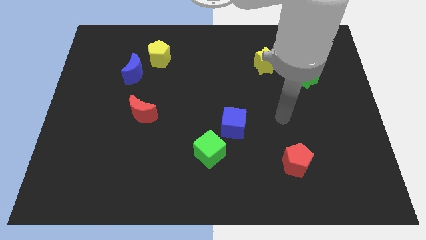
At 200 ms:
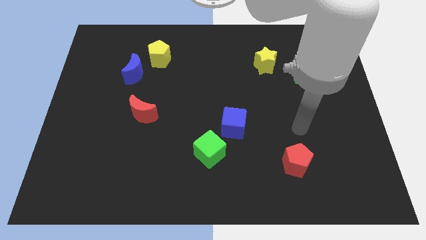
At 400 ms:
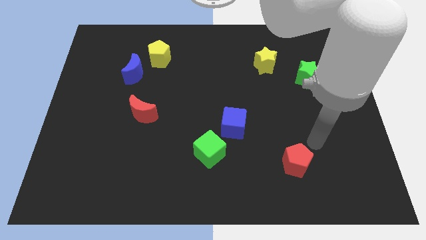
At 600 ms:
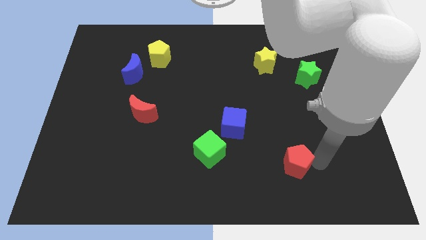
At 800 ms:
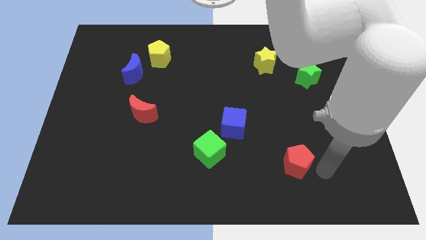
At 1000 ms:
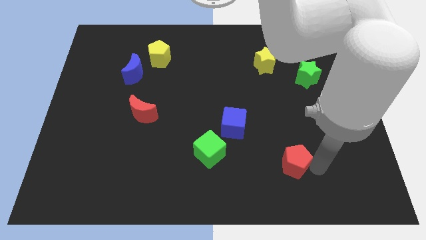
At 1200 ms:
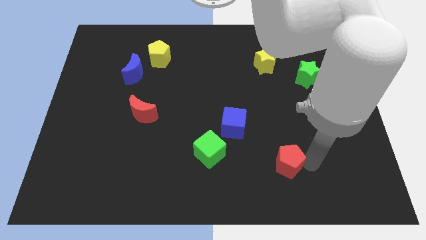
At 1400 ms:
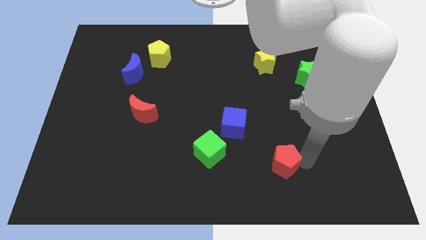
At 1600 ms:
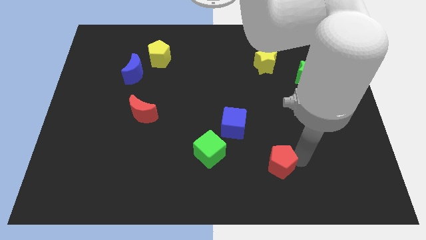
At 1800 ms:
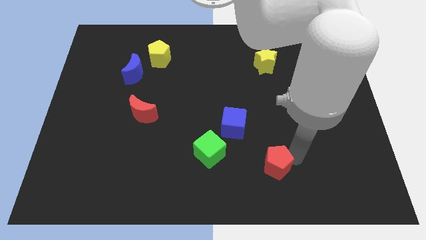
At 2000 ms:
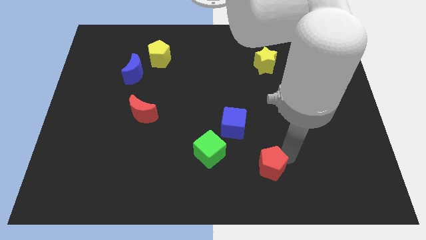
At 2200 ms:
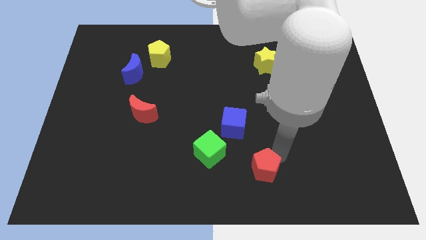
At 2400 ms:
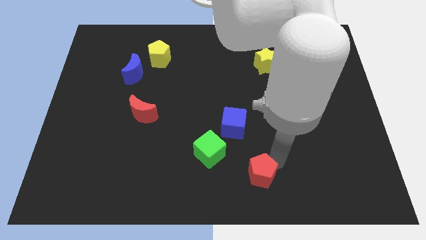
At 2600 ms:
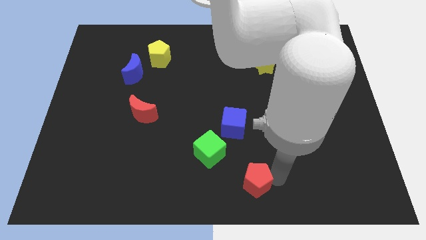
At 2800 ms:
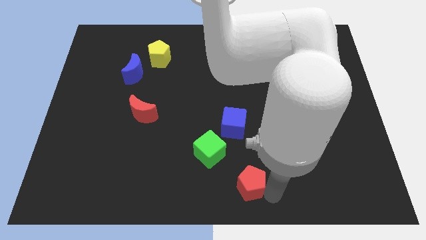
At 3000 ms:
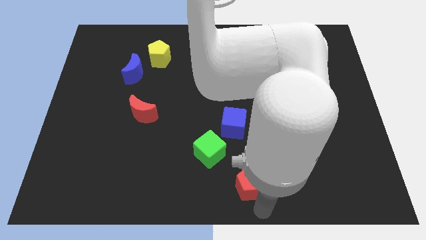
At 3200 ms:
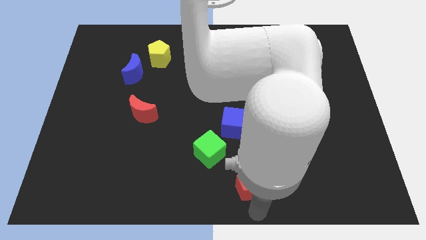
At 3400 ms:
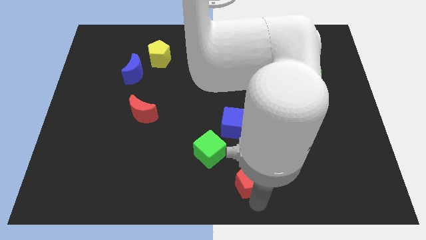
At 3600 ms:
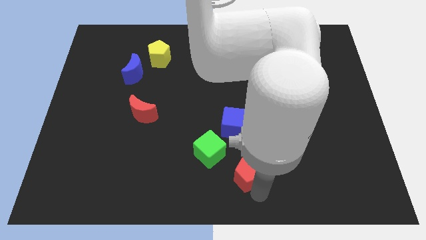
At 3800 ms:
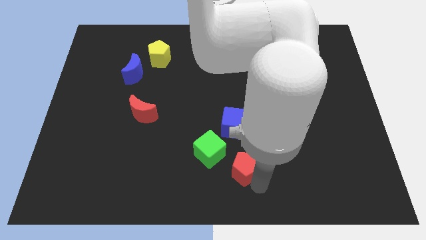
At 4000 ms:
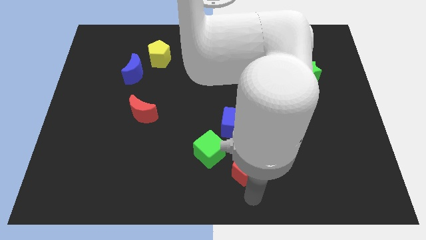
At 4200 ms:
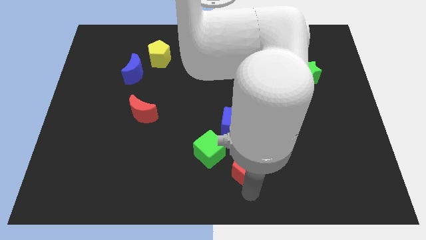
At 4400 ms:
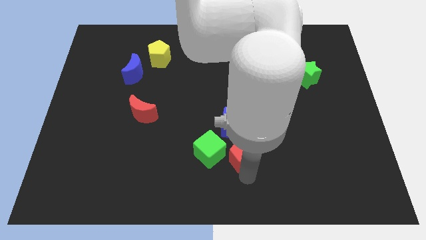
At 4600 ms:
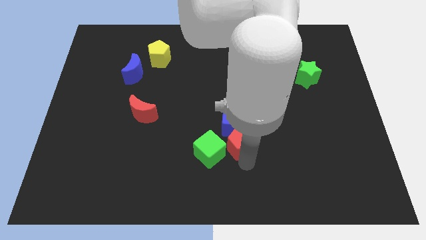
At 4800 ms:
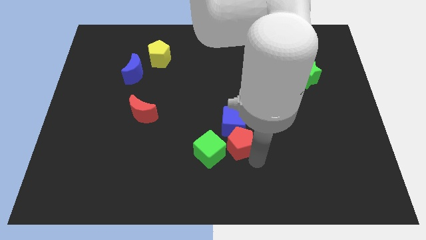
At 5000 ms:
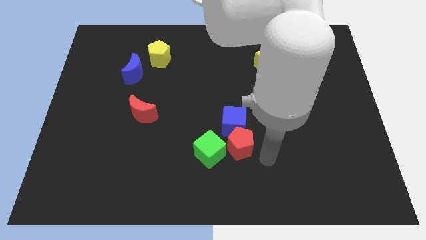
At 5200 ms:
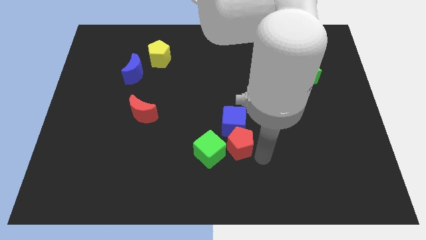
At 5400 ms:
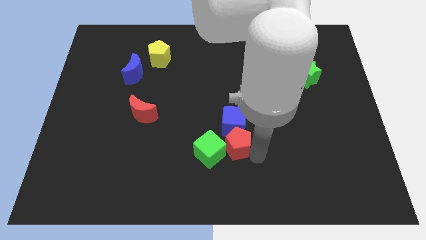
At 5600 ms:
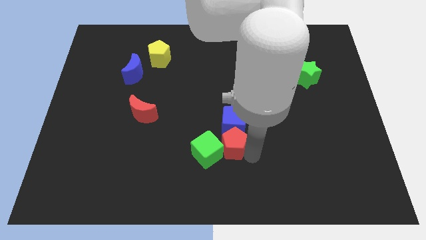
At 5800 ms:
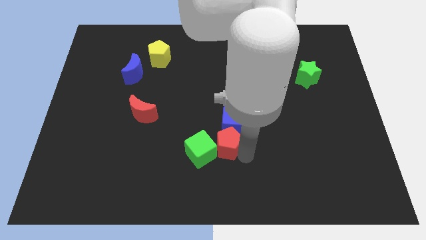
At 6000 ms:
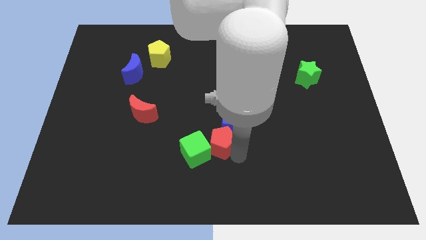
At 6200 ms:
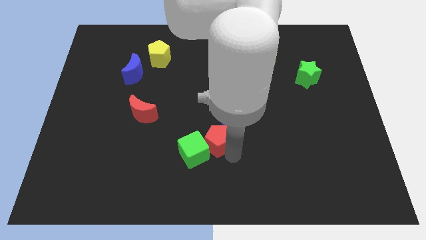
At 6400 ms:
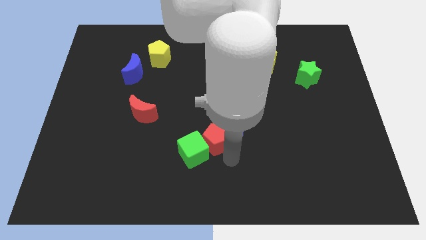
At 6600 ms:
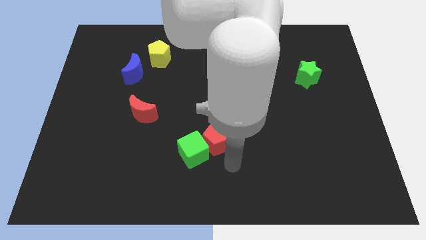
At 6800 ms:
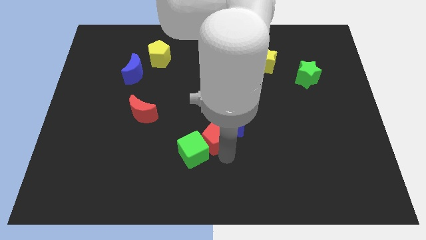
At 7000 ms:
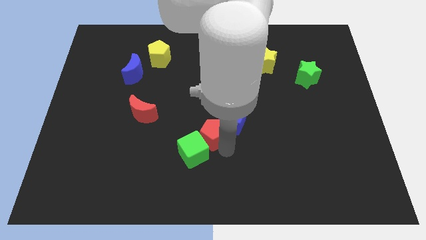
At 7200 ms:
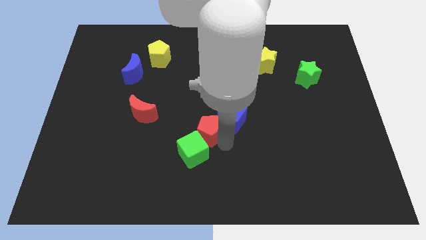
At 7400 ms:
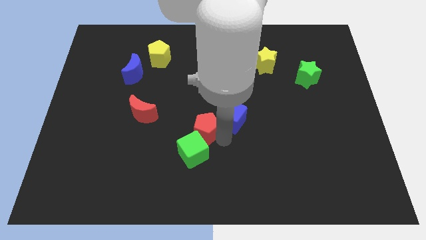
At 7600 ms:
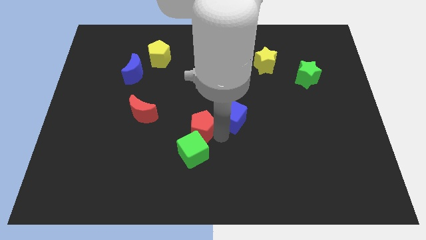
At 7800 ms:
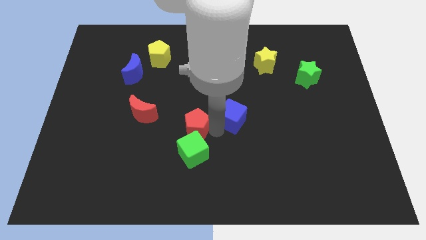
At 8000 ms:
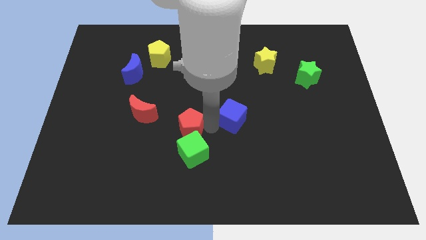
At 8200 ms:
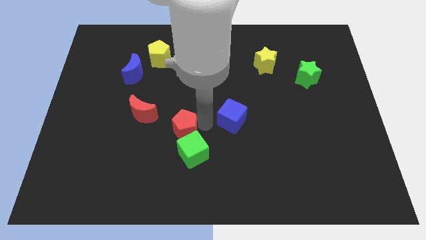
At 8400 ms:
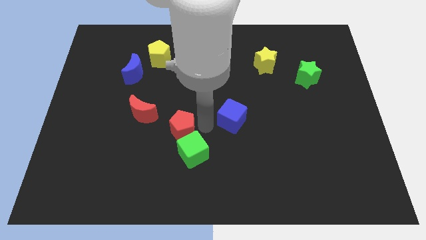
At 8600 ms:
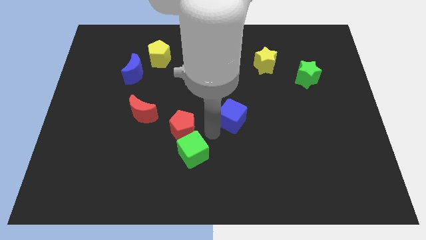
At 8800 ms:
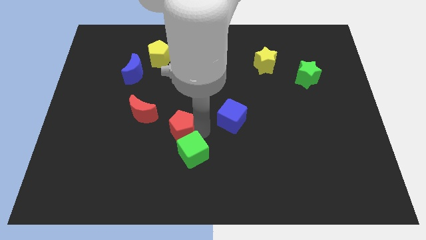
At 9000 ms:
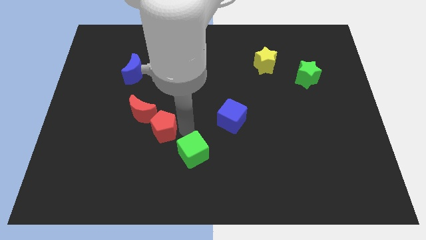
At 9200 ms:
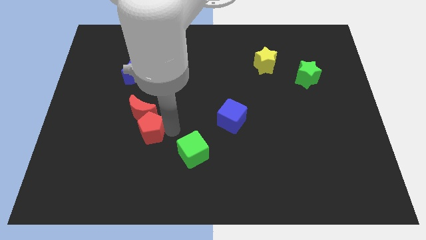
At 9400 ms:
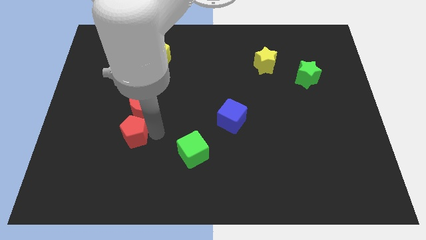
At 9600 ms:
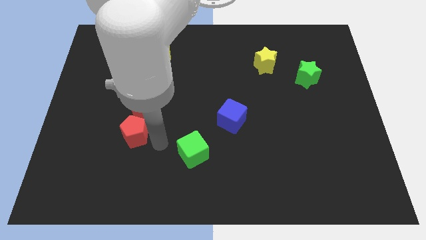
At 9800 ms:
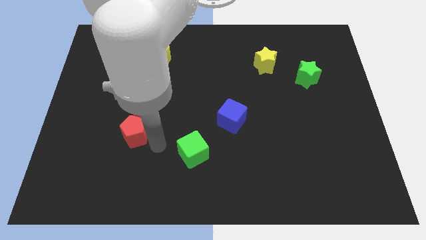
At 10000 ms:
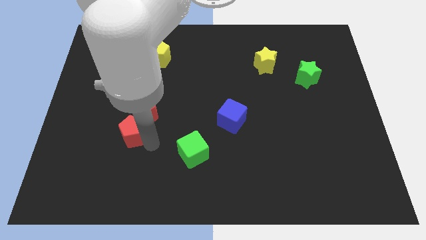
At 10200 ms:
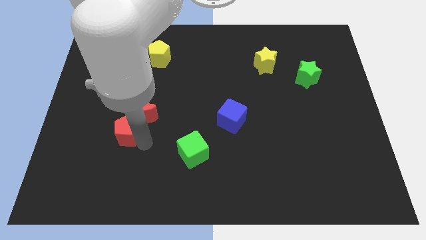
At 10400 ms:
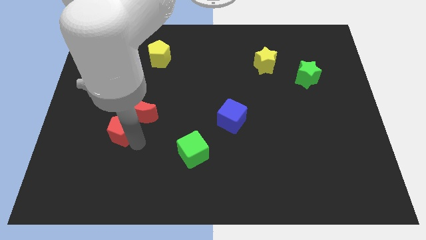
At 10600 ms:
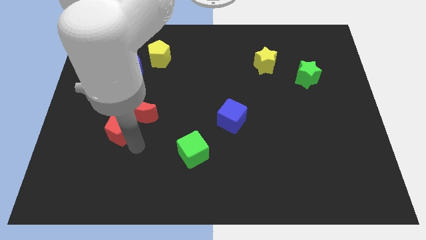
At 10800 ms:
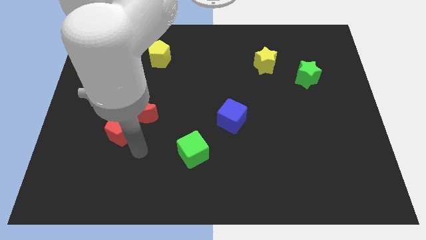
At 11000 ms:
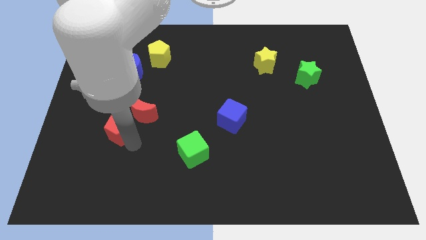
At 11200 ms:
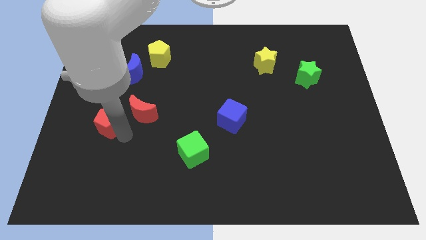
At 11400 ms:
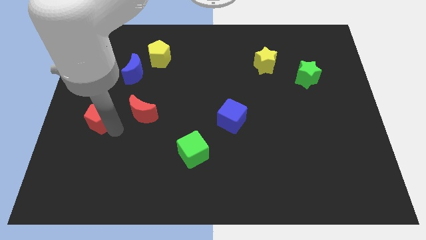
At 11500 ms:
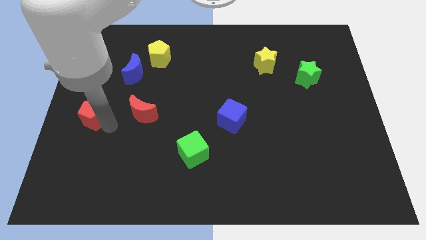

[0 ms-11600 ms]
push the red pentagon to the center left

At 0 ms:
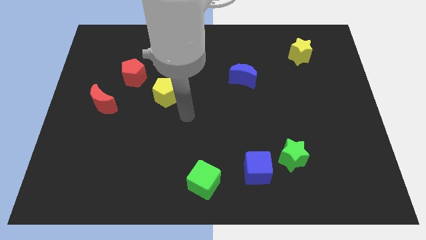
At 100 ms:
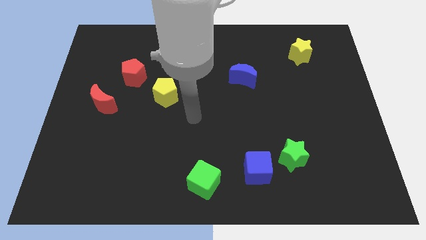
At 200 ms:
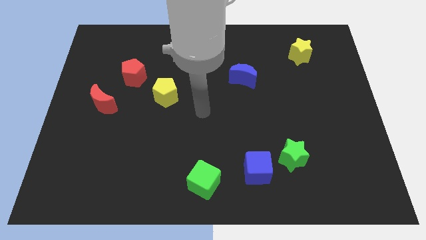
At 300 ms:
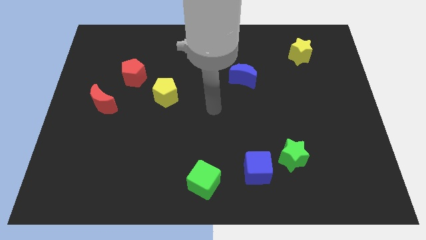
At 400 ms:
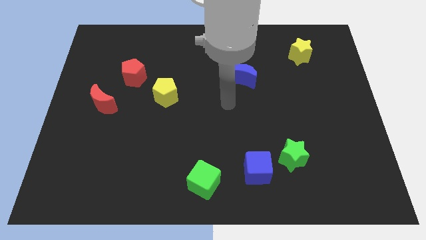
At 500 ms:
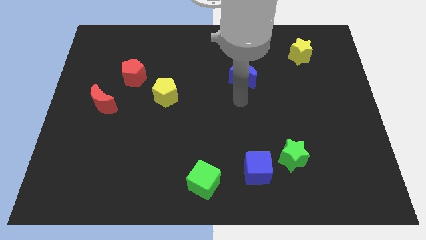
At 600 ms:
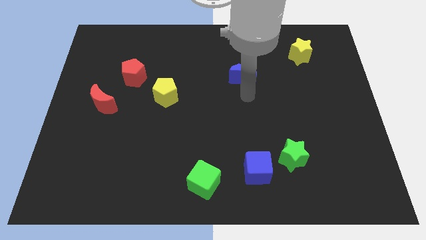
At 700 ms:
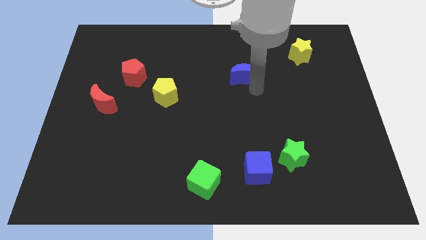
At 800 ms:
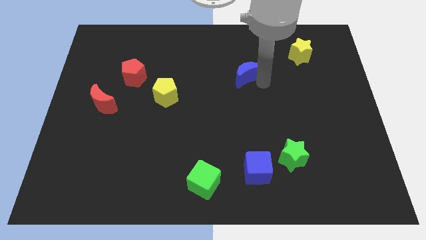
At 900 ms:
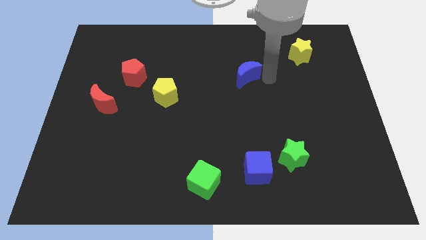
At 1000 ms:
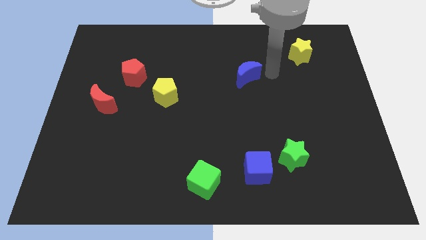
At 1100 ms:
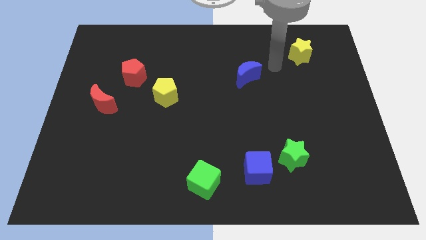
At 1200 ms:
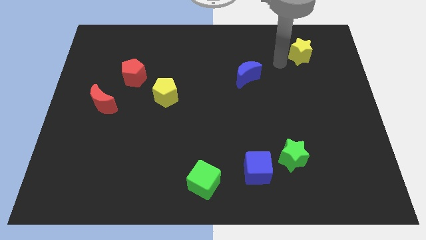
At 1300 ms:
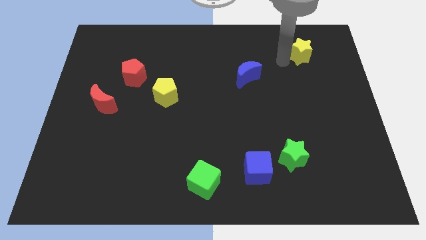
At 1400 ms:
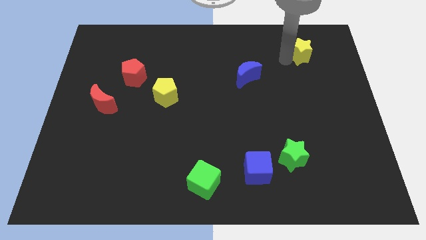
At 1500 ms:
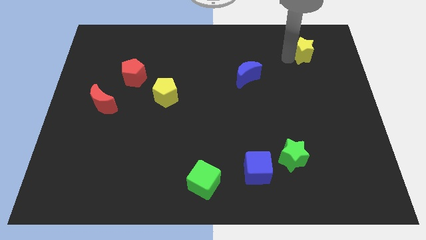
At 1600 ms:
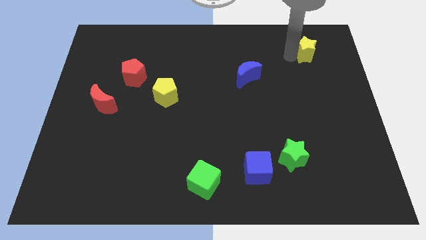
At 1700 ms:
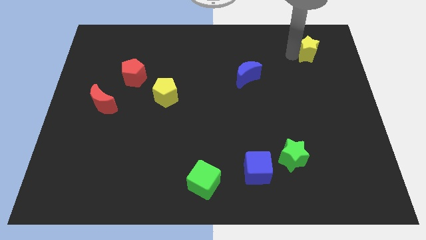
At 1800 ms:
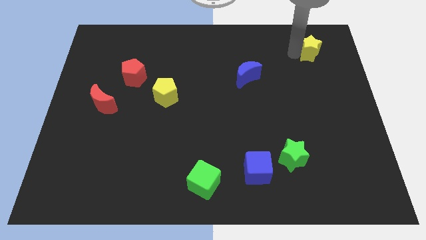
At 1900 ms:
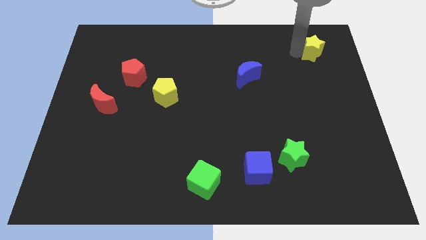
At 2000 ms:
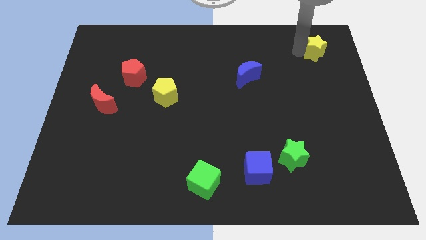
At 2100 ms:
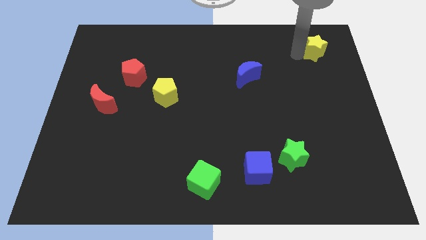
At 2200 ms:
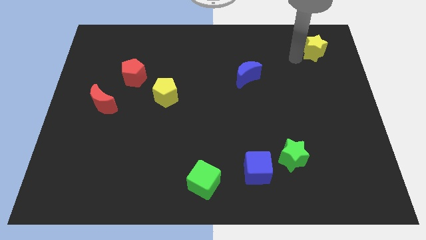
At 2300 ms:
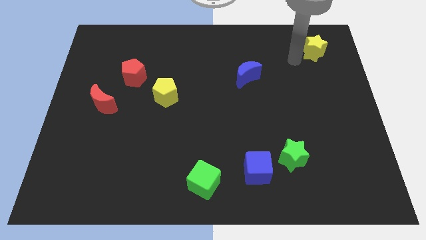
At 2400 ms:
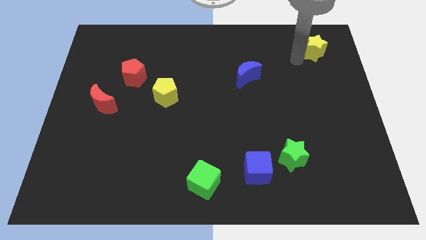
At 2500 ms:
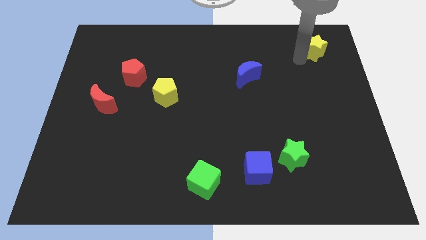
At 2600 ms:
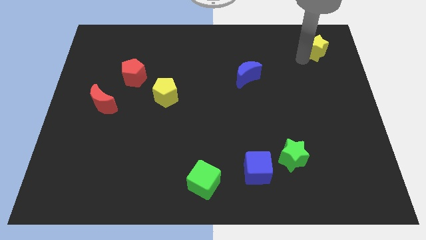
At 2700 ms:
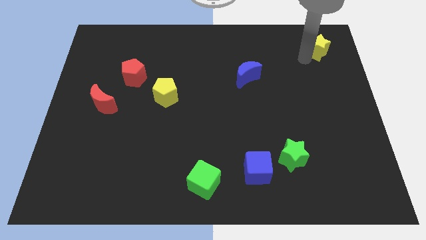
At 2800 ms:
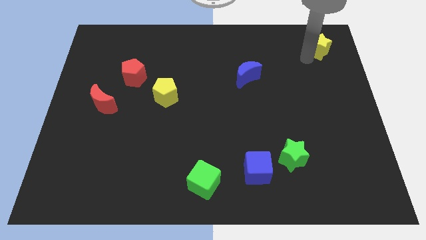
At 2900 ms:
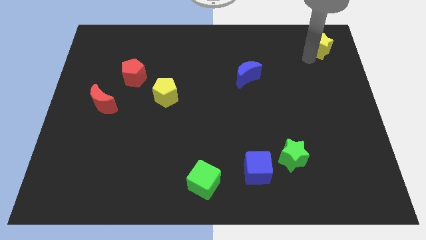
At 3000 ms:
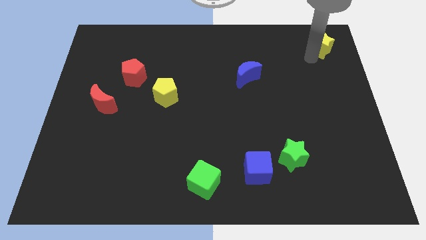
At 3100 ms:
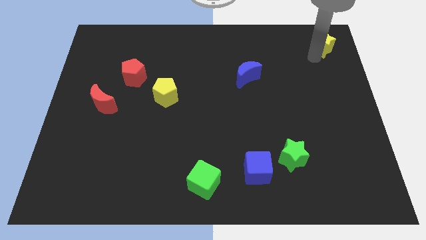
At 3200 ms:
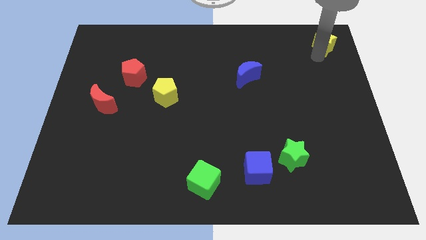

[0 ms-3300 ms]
move the yellow star to the top right
